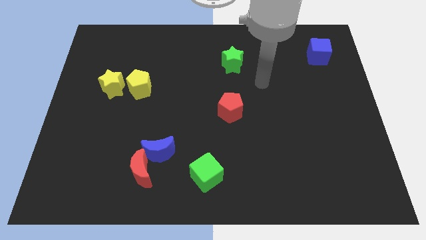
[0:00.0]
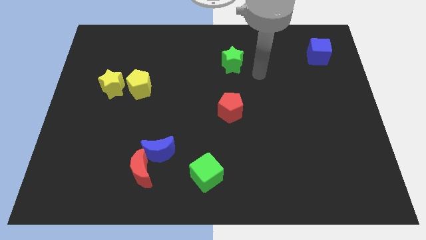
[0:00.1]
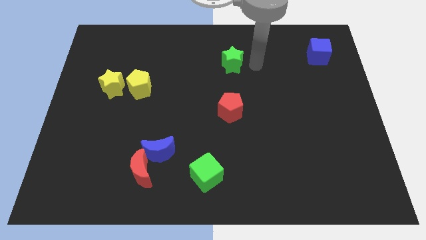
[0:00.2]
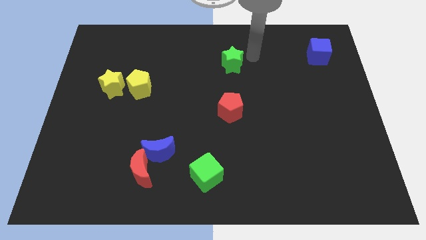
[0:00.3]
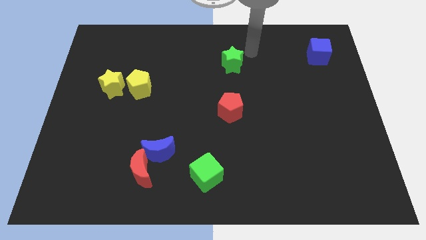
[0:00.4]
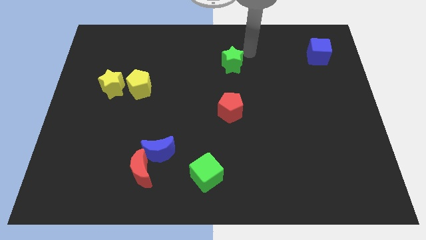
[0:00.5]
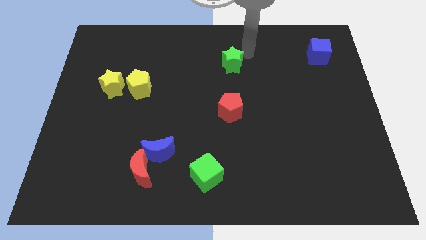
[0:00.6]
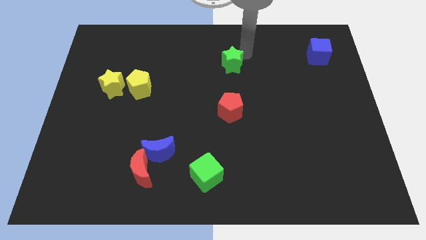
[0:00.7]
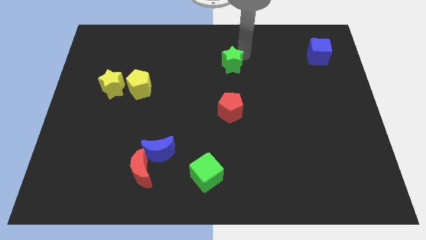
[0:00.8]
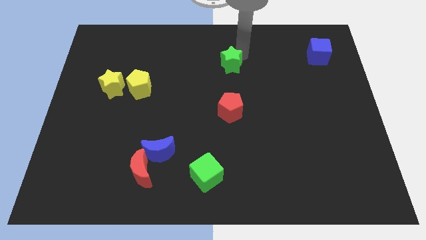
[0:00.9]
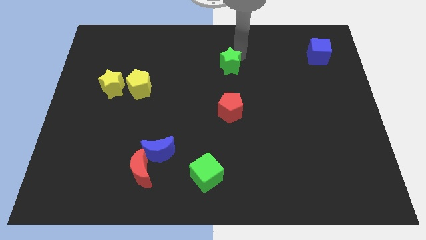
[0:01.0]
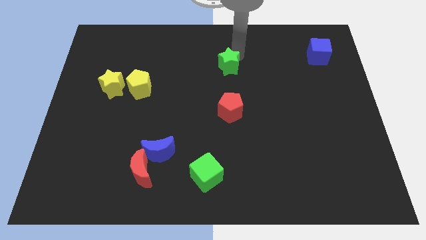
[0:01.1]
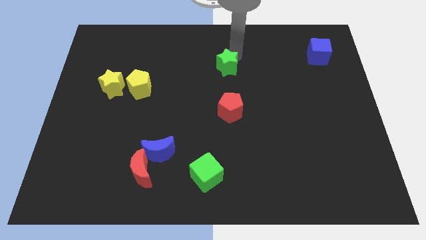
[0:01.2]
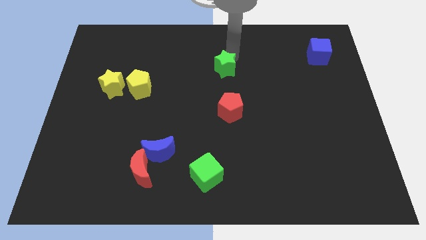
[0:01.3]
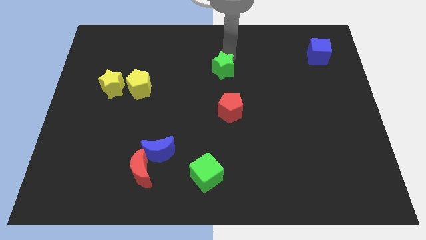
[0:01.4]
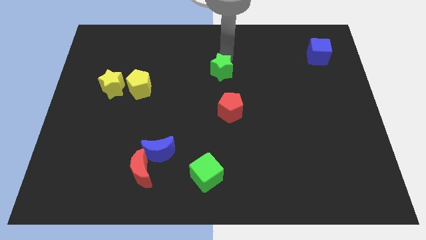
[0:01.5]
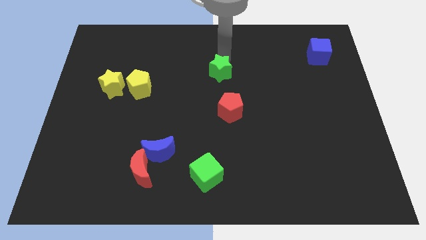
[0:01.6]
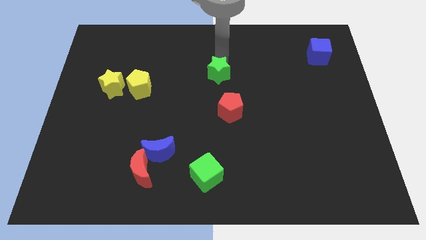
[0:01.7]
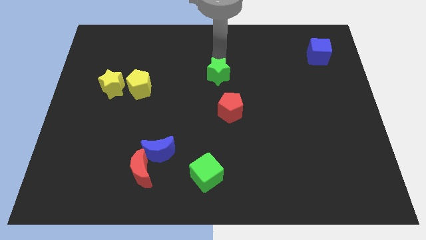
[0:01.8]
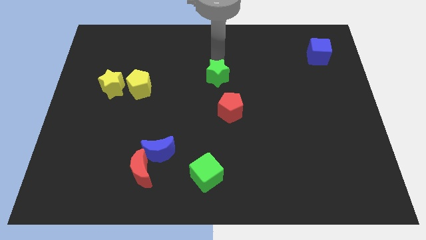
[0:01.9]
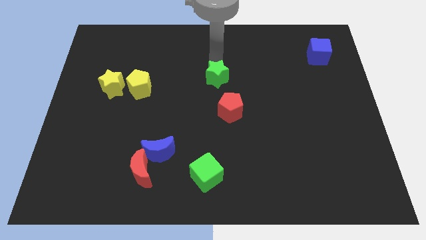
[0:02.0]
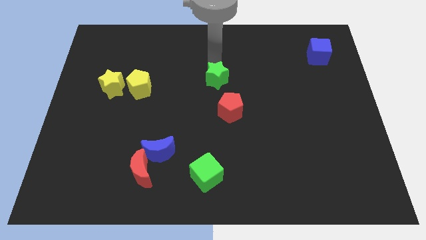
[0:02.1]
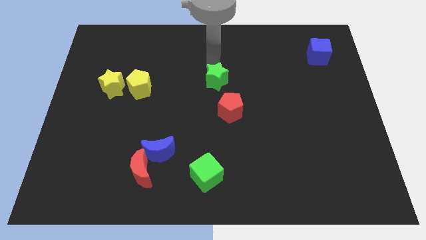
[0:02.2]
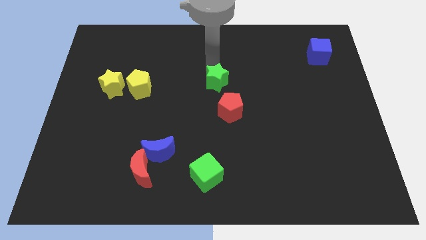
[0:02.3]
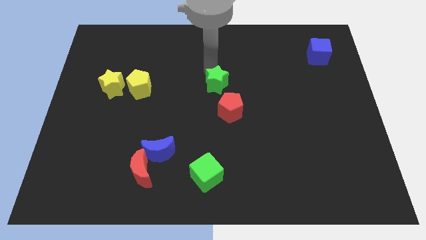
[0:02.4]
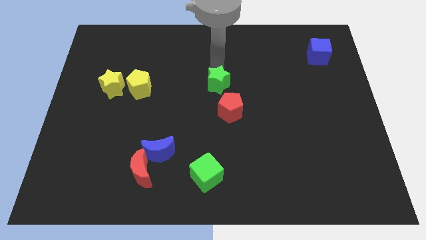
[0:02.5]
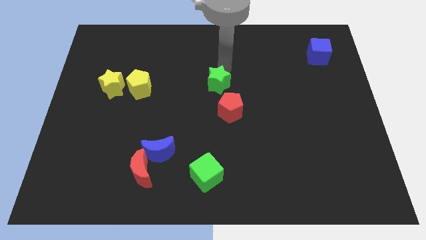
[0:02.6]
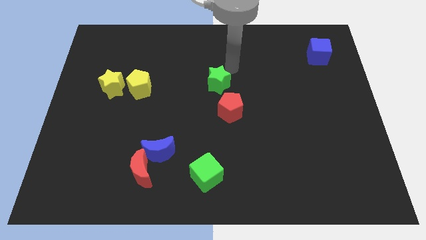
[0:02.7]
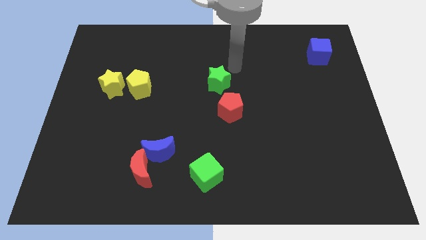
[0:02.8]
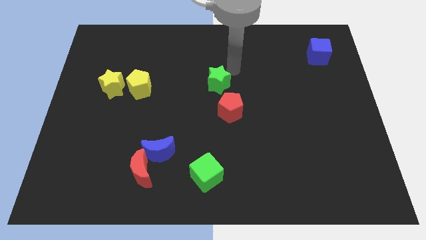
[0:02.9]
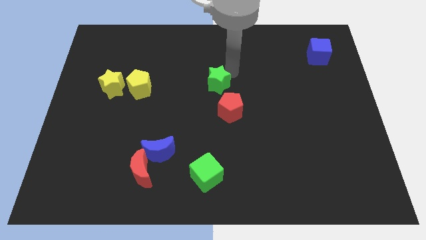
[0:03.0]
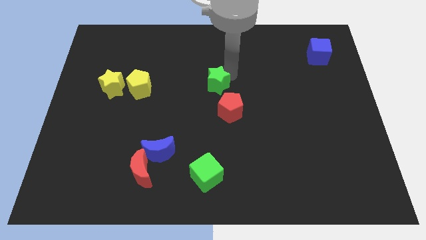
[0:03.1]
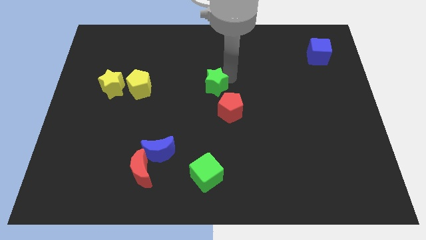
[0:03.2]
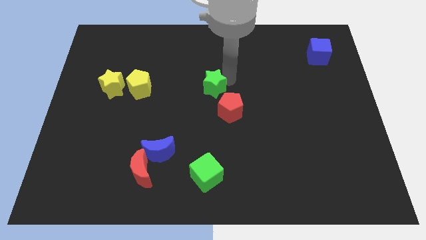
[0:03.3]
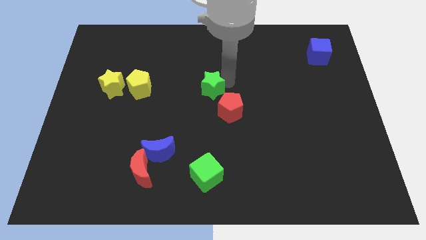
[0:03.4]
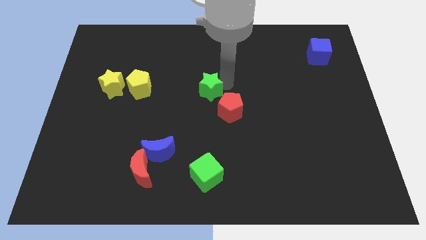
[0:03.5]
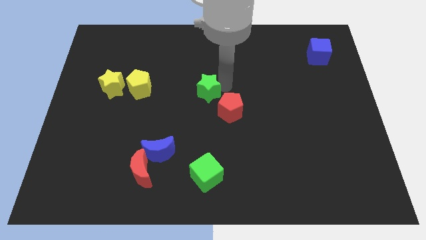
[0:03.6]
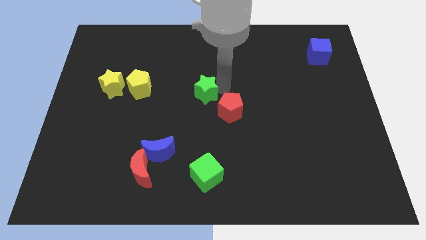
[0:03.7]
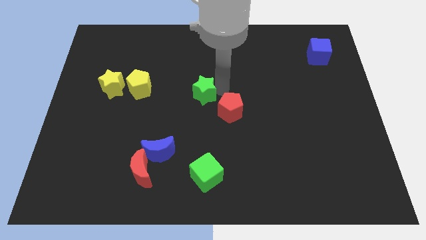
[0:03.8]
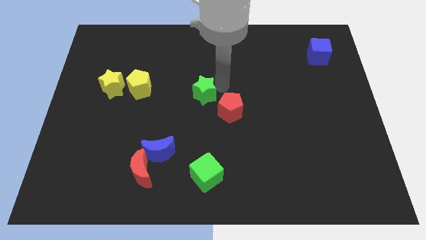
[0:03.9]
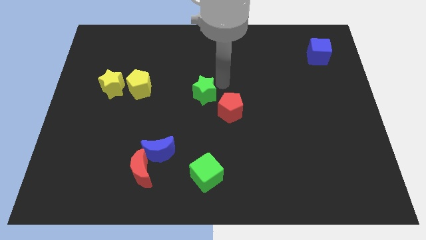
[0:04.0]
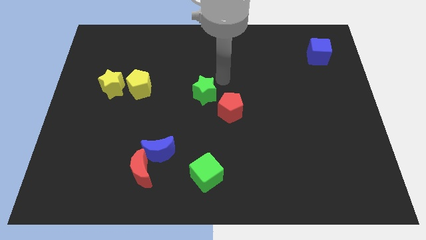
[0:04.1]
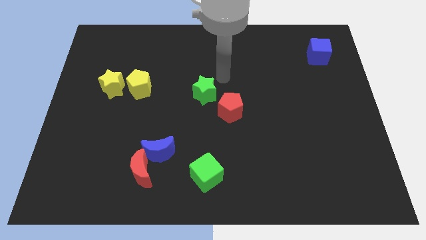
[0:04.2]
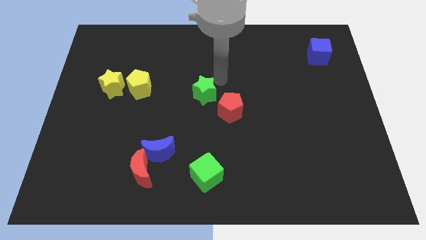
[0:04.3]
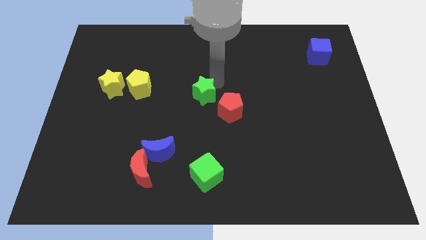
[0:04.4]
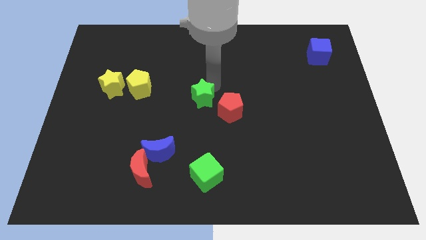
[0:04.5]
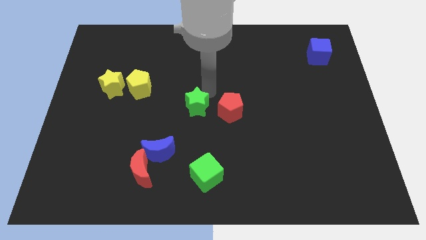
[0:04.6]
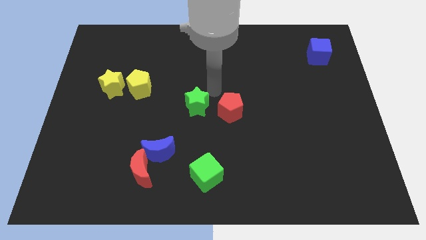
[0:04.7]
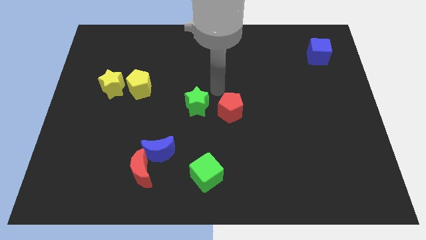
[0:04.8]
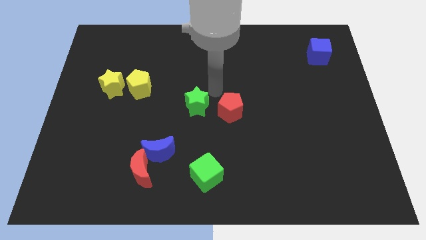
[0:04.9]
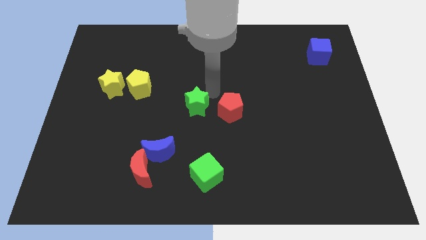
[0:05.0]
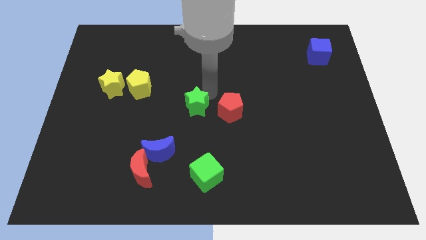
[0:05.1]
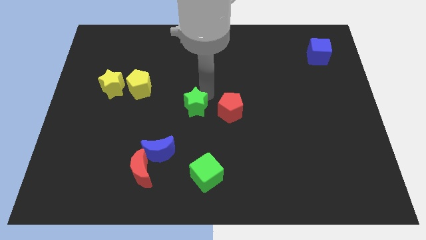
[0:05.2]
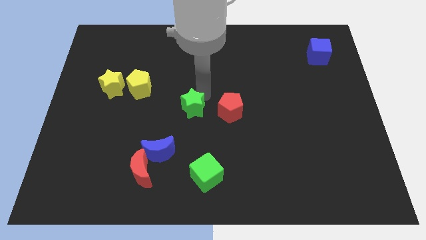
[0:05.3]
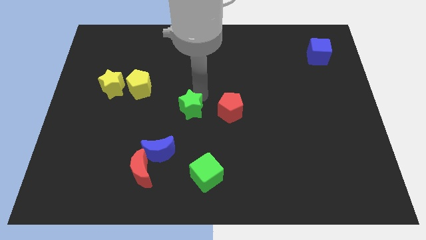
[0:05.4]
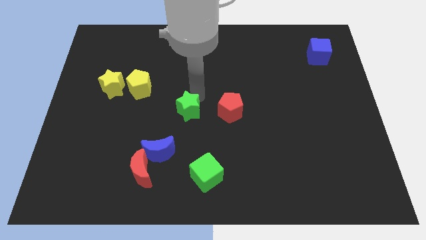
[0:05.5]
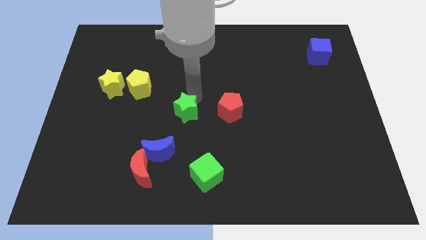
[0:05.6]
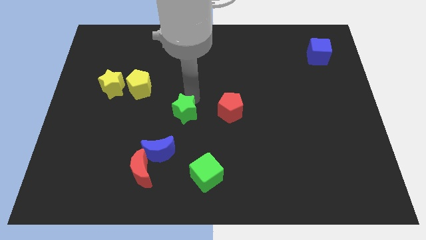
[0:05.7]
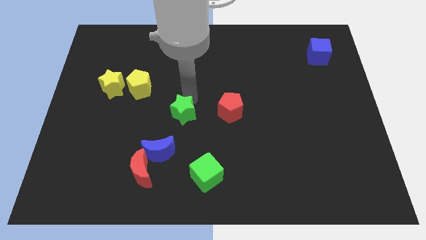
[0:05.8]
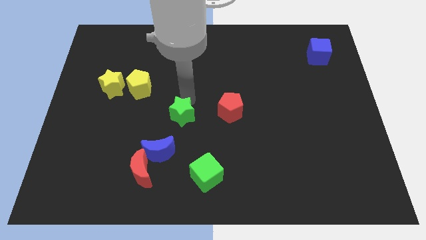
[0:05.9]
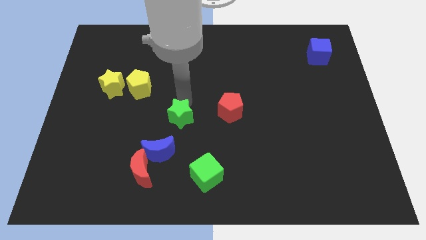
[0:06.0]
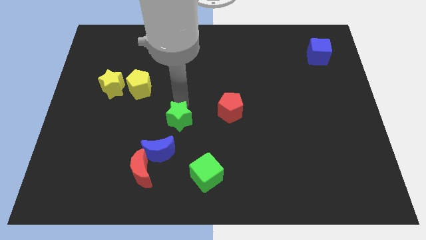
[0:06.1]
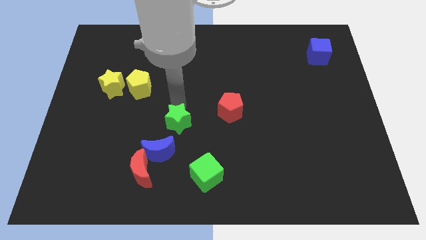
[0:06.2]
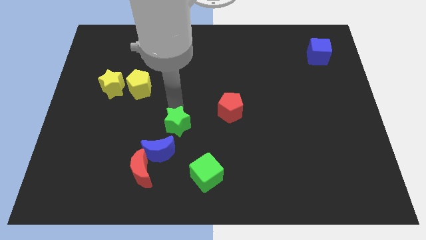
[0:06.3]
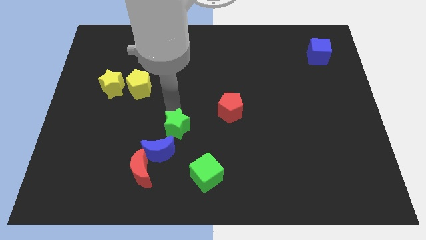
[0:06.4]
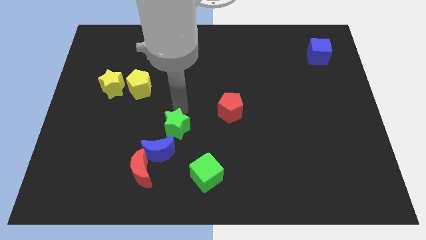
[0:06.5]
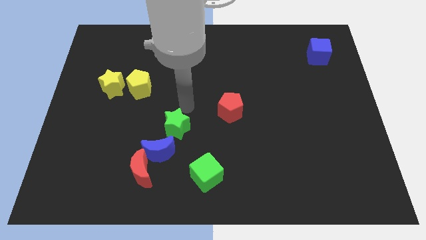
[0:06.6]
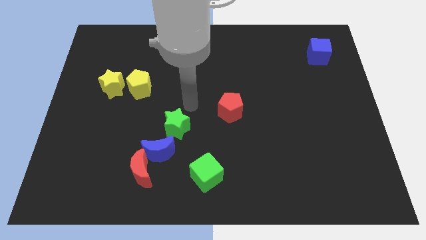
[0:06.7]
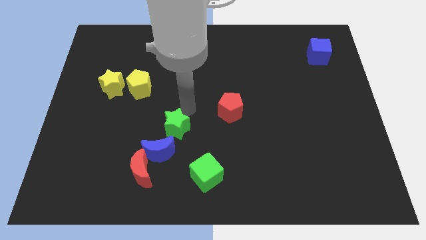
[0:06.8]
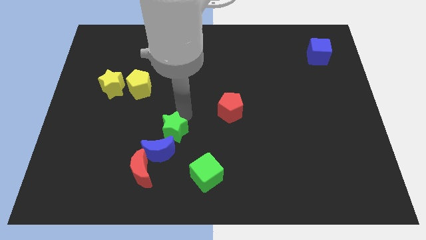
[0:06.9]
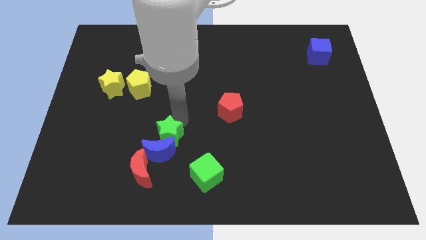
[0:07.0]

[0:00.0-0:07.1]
slide the green star towards the blue moon
